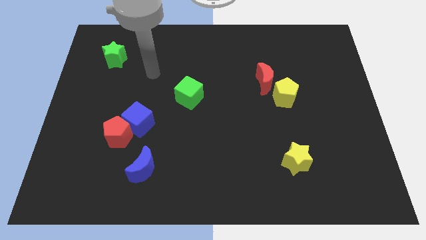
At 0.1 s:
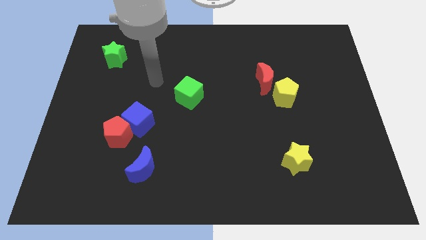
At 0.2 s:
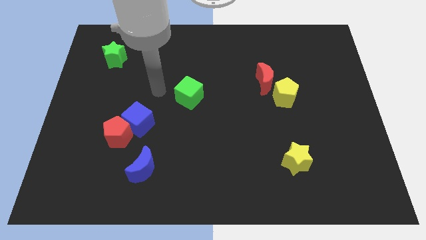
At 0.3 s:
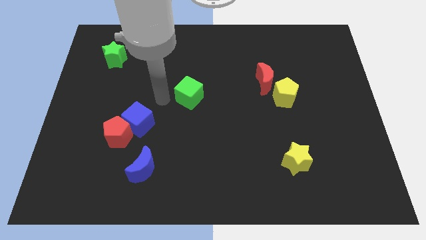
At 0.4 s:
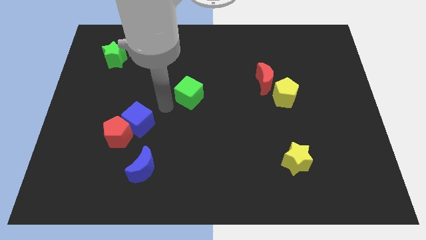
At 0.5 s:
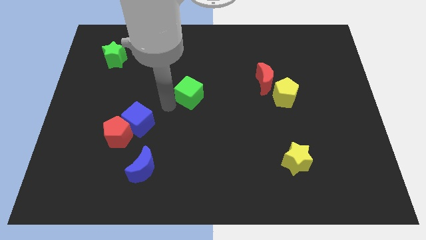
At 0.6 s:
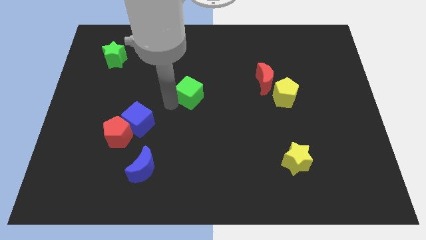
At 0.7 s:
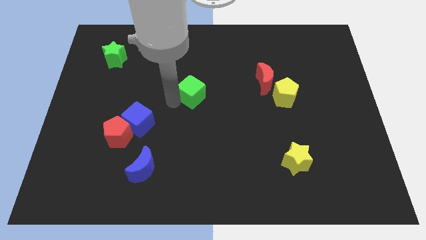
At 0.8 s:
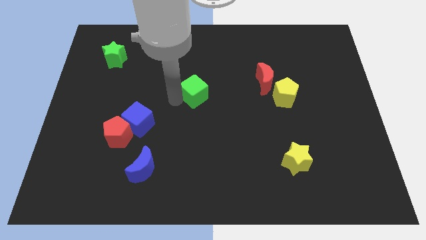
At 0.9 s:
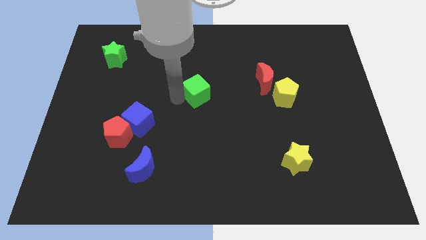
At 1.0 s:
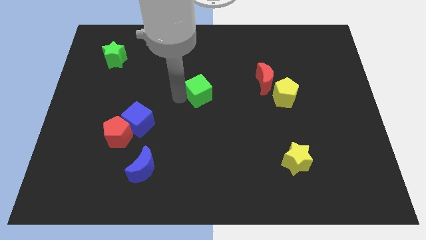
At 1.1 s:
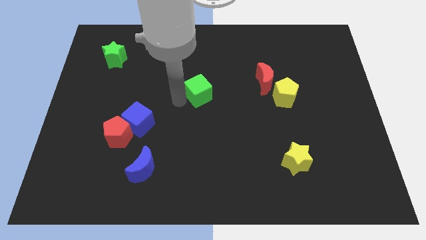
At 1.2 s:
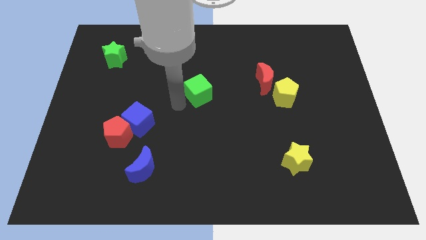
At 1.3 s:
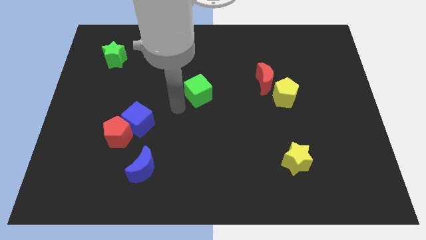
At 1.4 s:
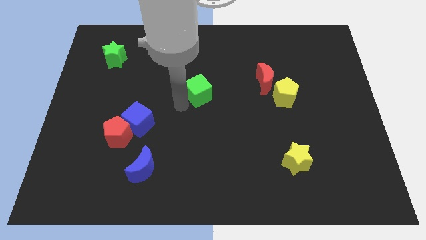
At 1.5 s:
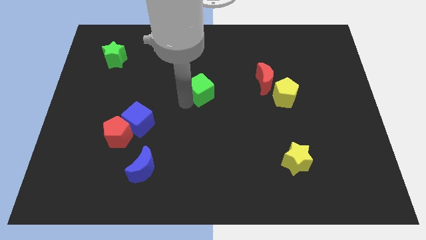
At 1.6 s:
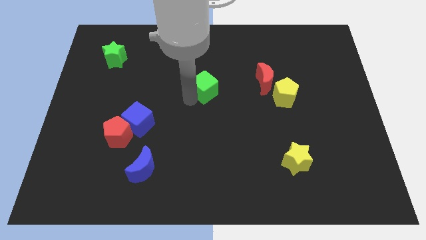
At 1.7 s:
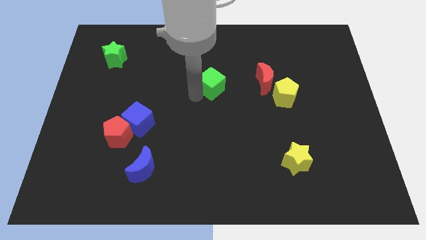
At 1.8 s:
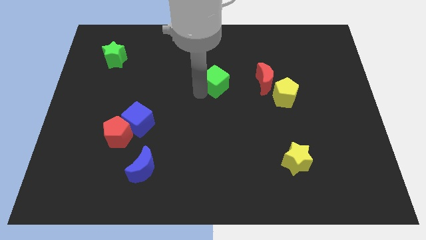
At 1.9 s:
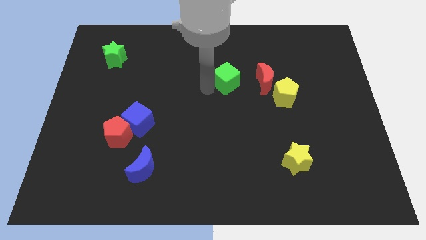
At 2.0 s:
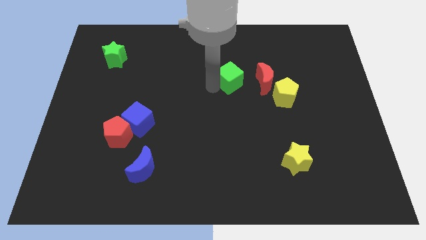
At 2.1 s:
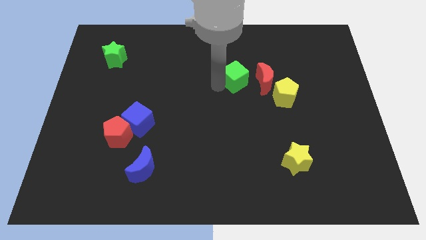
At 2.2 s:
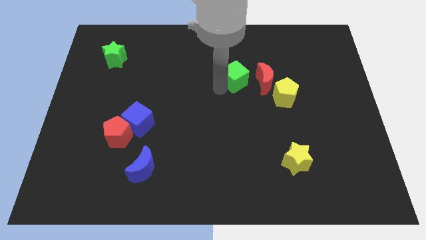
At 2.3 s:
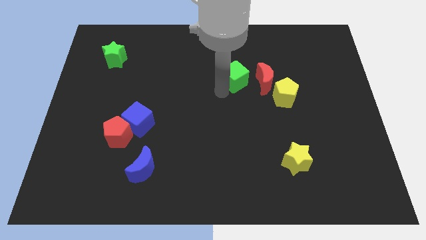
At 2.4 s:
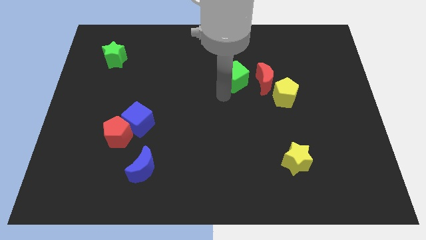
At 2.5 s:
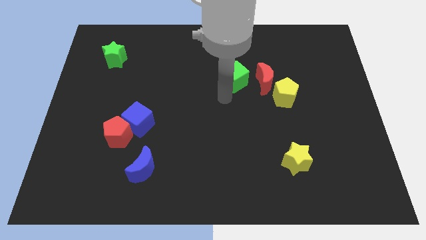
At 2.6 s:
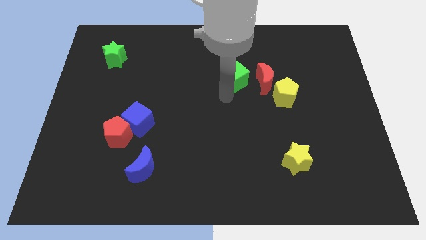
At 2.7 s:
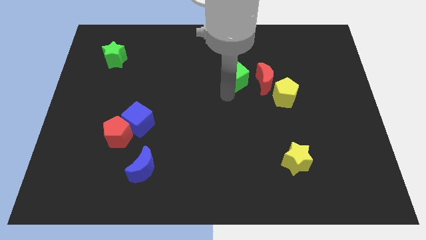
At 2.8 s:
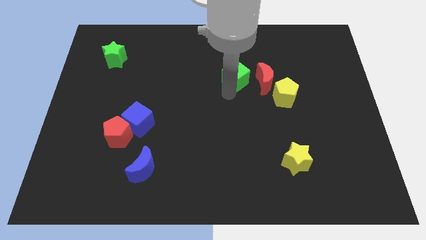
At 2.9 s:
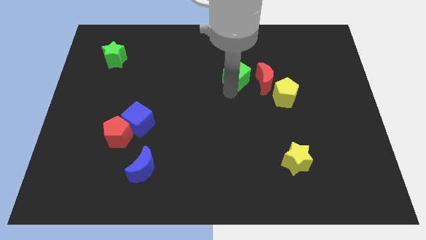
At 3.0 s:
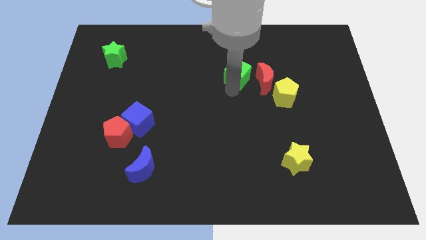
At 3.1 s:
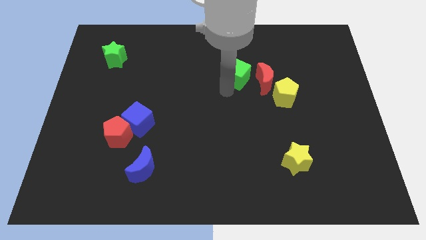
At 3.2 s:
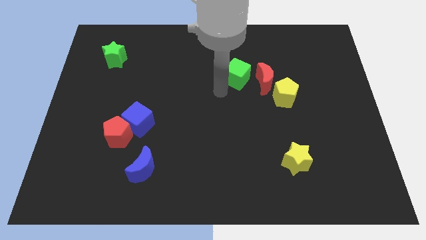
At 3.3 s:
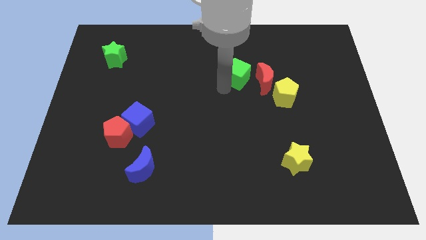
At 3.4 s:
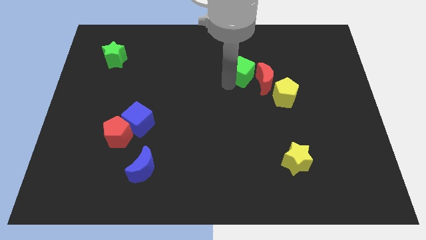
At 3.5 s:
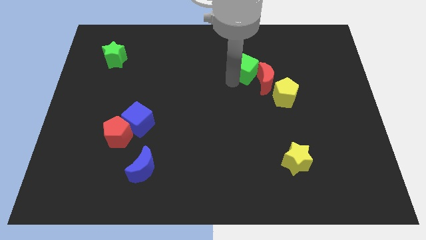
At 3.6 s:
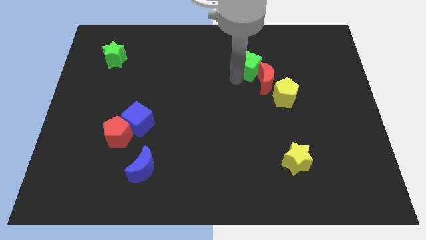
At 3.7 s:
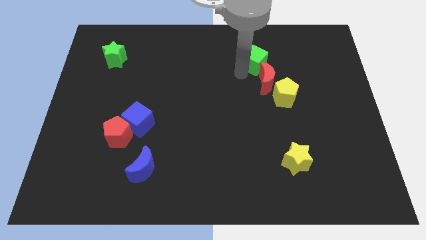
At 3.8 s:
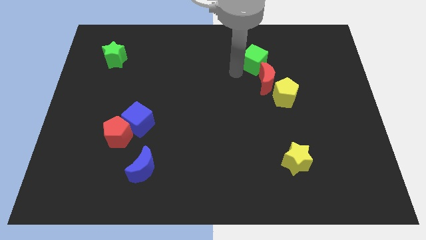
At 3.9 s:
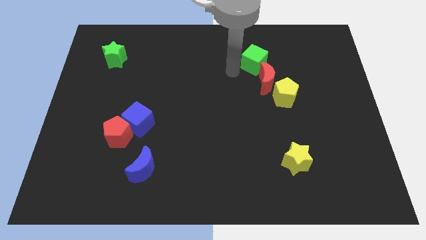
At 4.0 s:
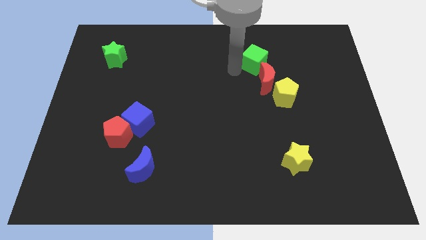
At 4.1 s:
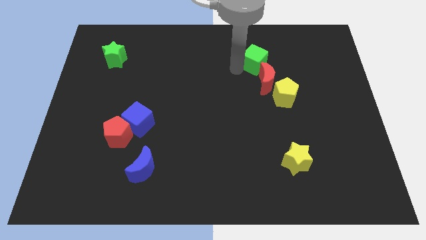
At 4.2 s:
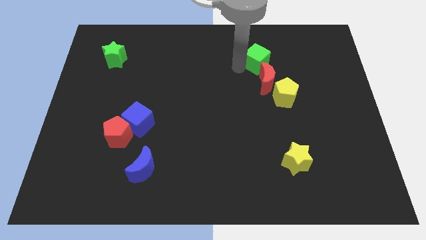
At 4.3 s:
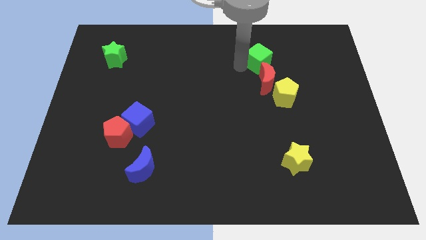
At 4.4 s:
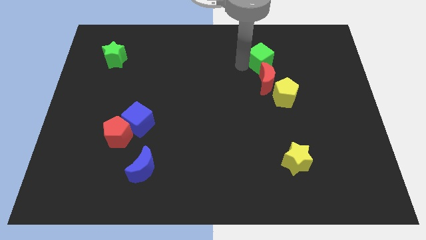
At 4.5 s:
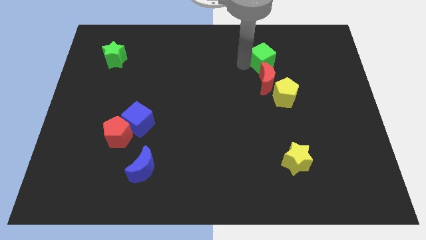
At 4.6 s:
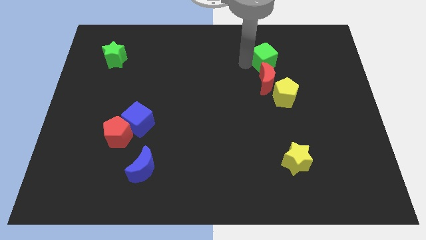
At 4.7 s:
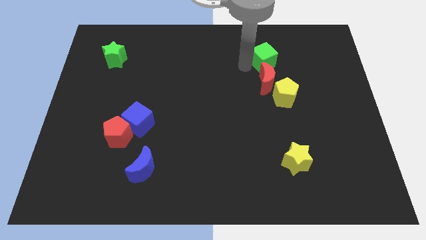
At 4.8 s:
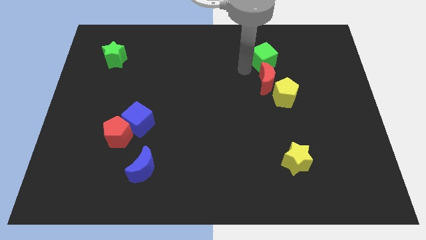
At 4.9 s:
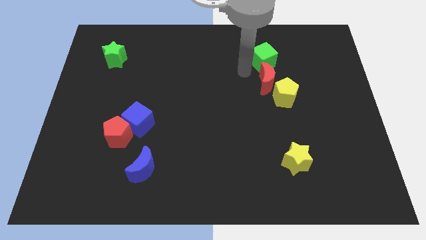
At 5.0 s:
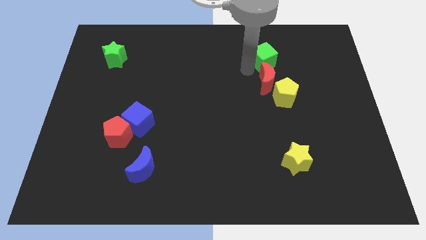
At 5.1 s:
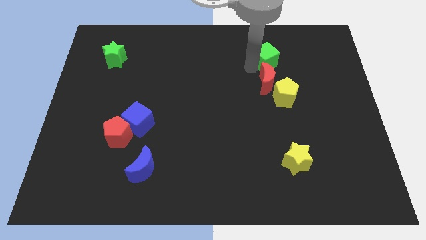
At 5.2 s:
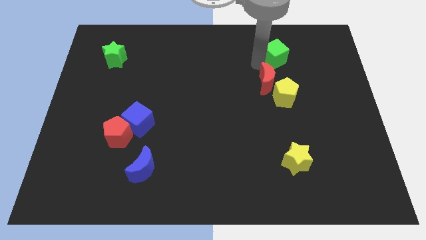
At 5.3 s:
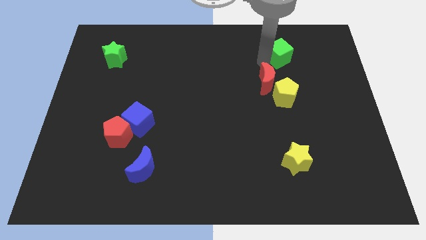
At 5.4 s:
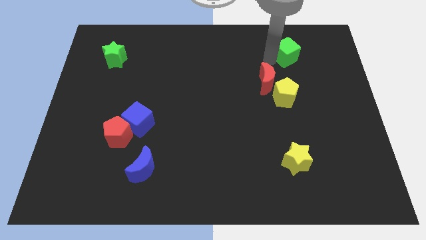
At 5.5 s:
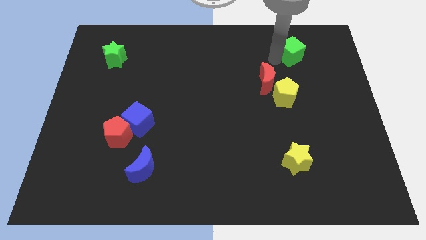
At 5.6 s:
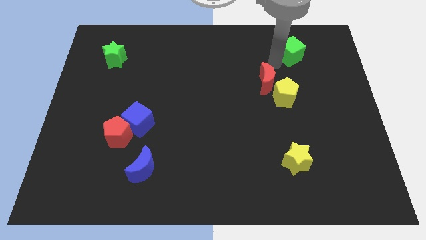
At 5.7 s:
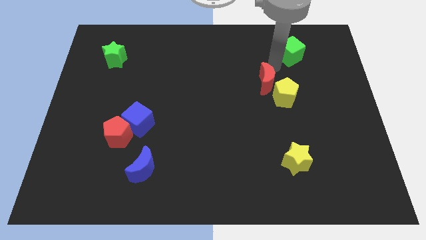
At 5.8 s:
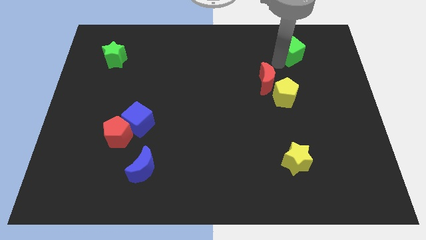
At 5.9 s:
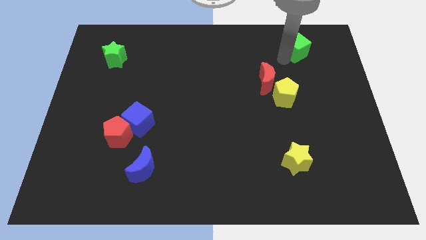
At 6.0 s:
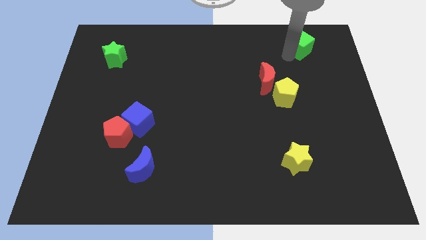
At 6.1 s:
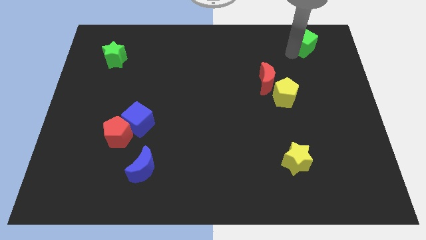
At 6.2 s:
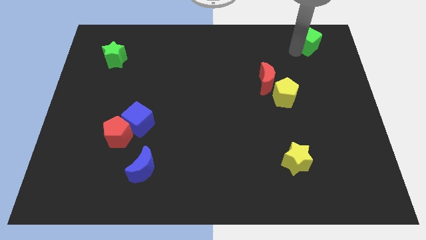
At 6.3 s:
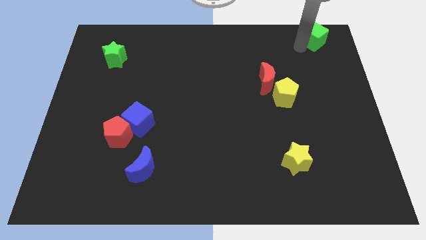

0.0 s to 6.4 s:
put the green cube to the upper right corner
